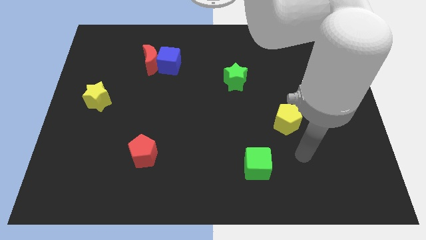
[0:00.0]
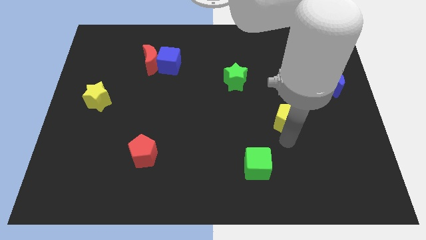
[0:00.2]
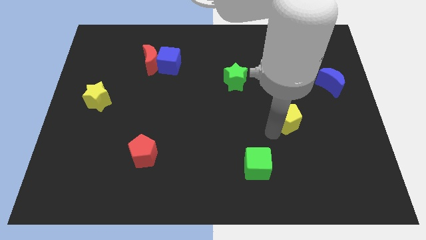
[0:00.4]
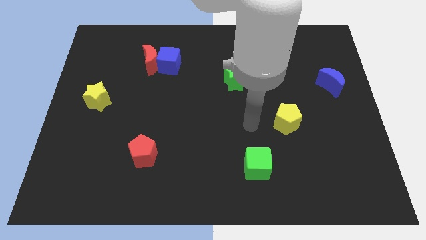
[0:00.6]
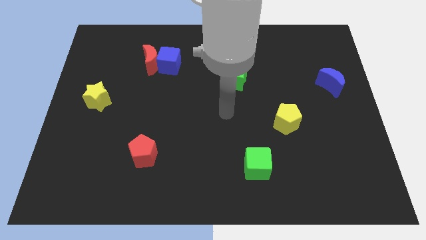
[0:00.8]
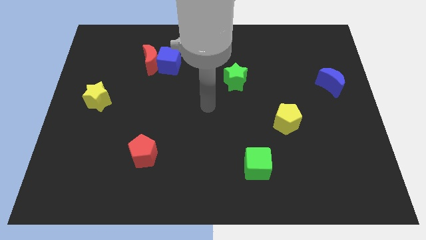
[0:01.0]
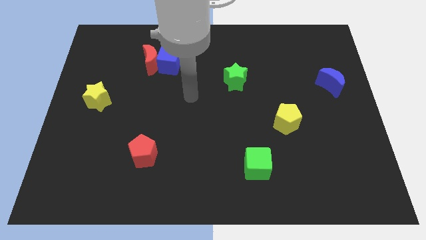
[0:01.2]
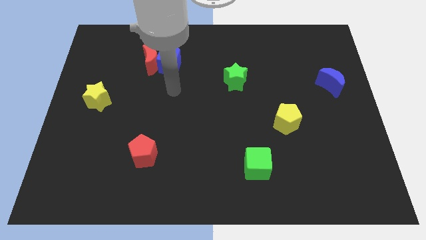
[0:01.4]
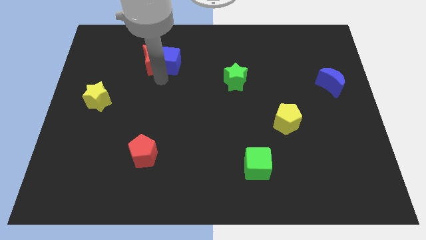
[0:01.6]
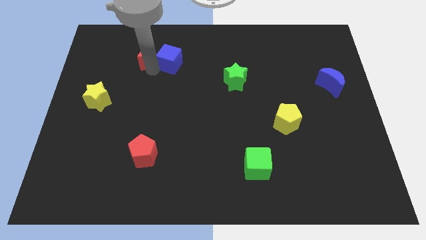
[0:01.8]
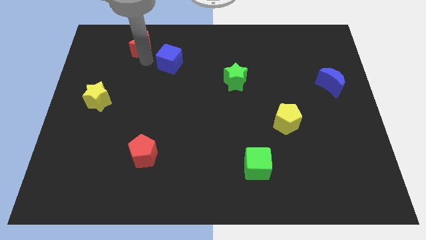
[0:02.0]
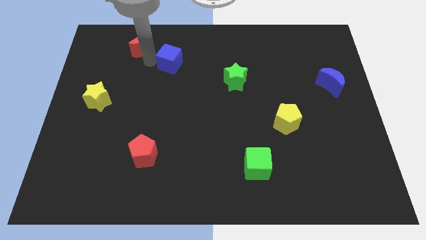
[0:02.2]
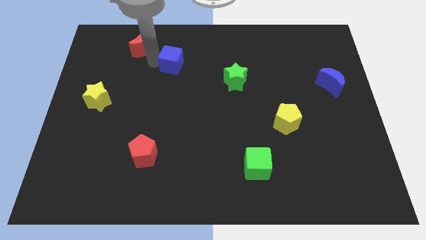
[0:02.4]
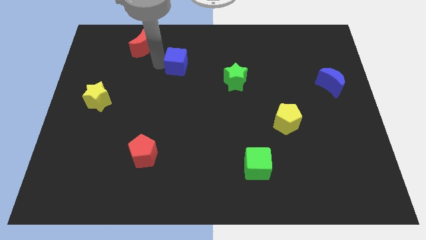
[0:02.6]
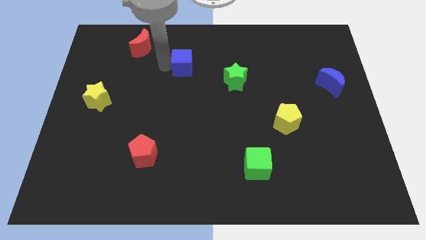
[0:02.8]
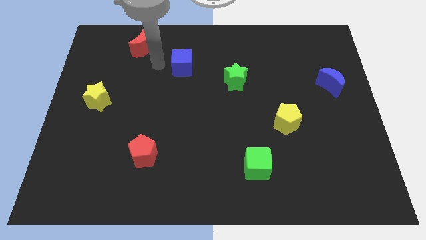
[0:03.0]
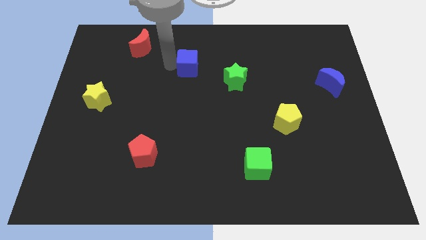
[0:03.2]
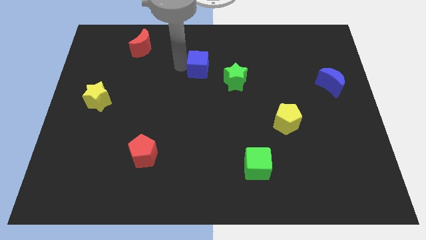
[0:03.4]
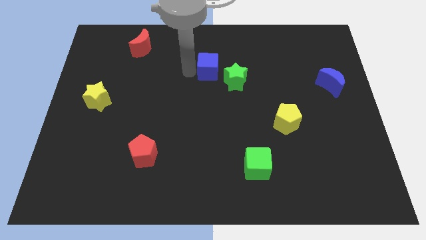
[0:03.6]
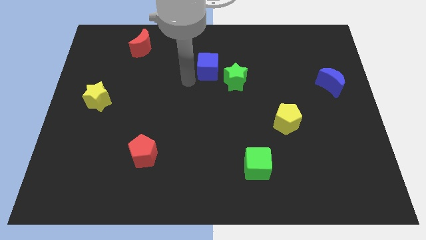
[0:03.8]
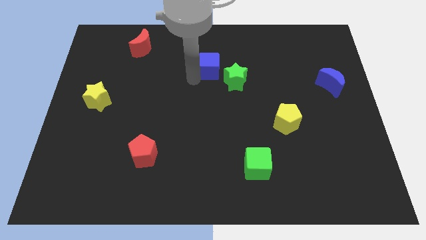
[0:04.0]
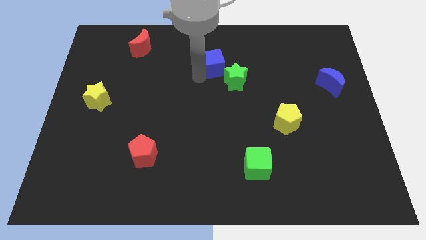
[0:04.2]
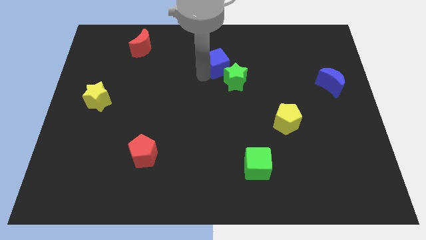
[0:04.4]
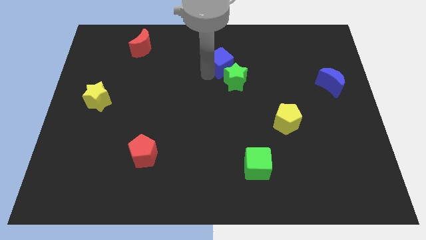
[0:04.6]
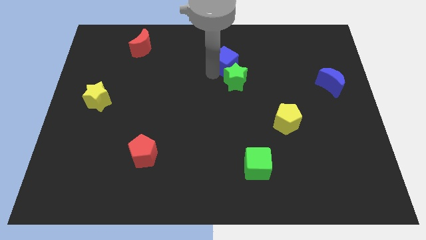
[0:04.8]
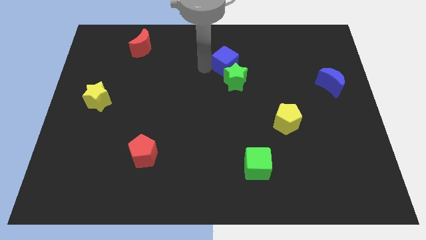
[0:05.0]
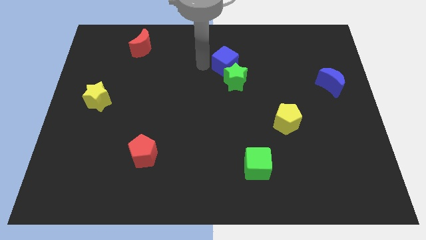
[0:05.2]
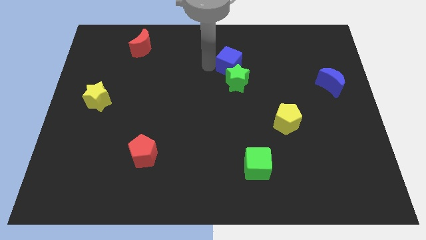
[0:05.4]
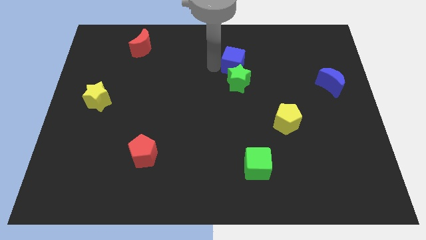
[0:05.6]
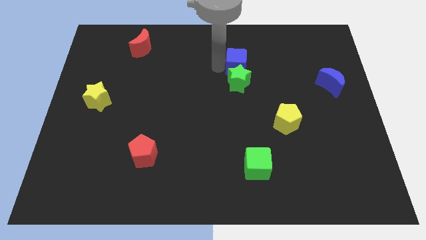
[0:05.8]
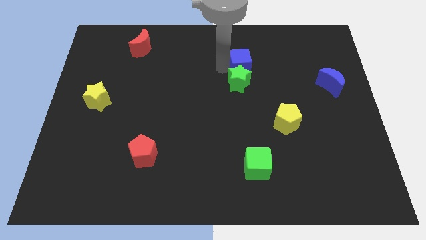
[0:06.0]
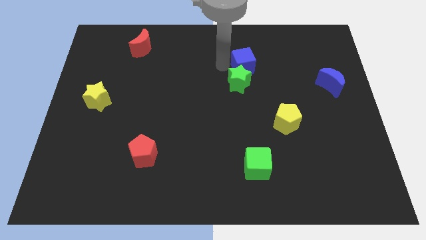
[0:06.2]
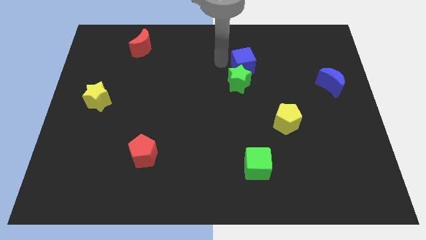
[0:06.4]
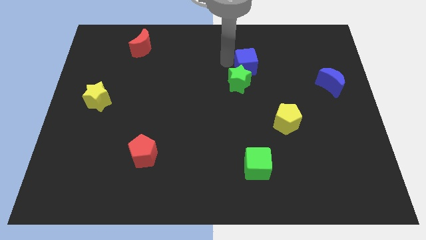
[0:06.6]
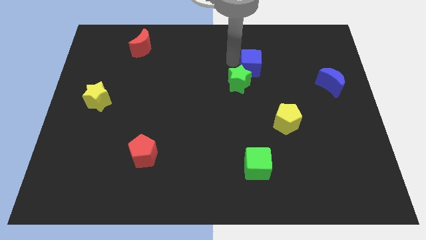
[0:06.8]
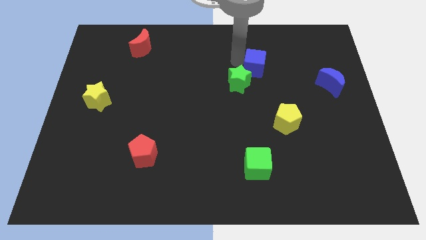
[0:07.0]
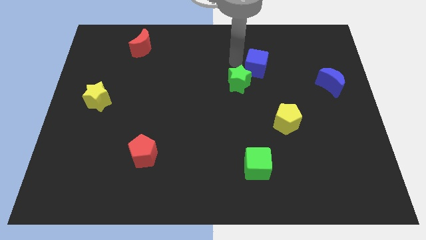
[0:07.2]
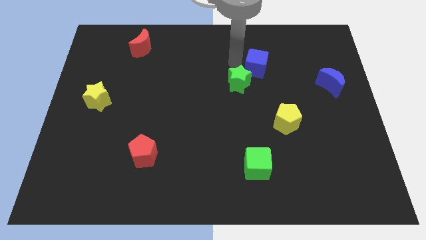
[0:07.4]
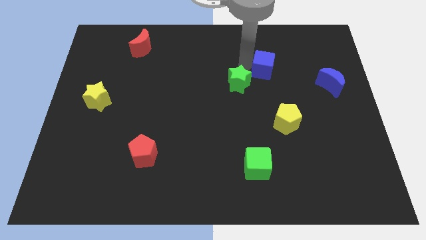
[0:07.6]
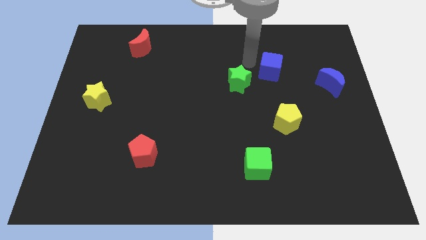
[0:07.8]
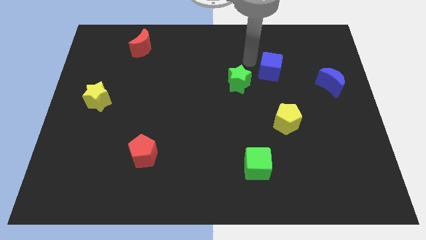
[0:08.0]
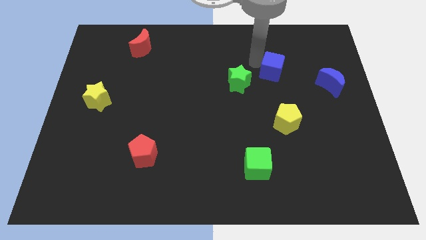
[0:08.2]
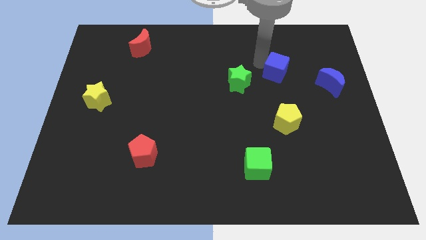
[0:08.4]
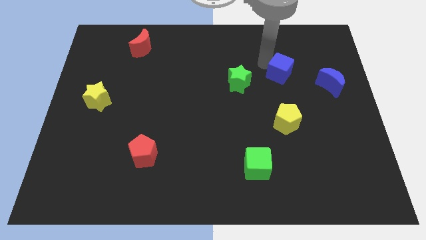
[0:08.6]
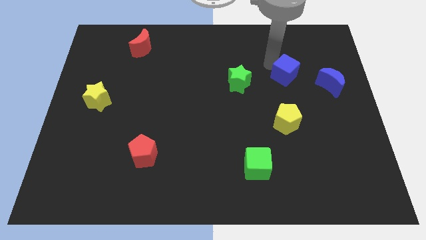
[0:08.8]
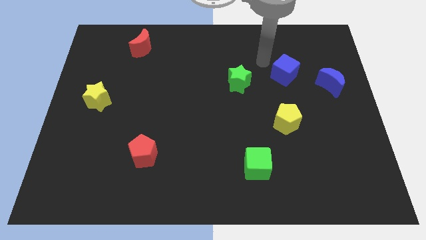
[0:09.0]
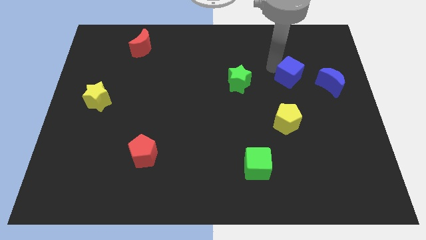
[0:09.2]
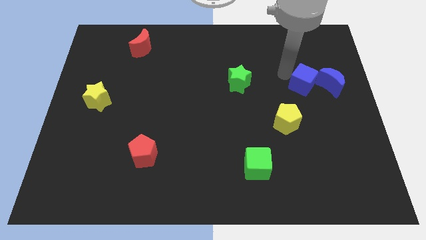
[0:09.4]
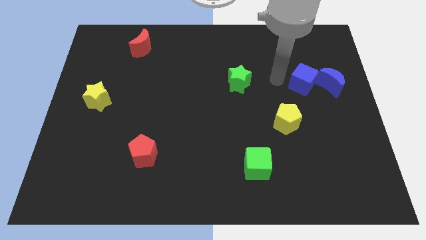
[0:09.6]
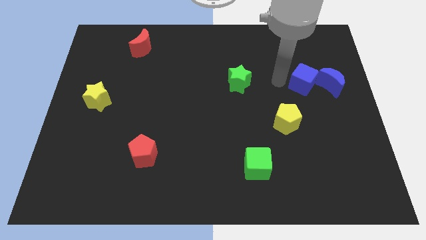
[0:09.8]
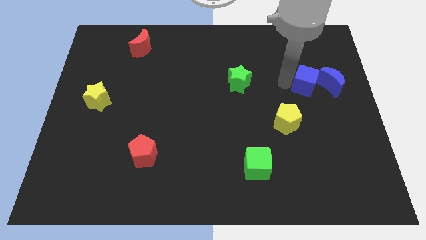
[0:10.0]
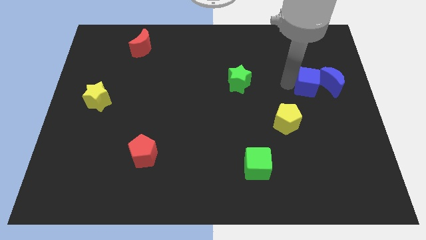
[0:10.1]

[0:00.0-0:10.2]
push the blue cube towards the blue moon
